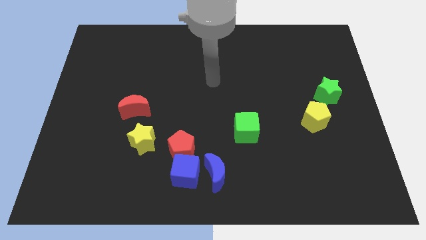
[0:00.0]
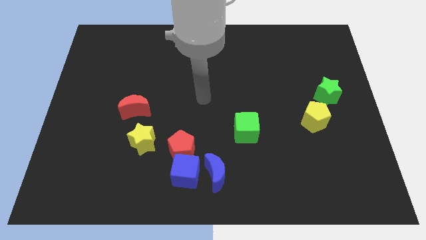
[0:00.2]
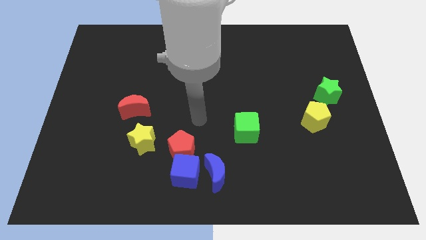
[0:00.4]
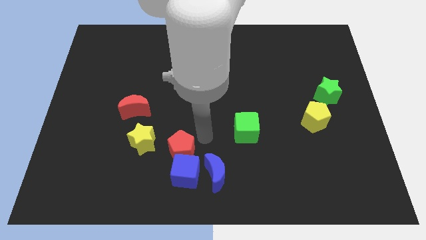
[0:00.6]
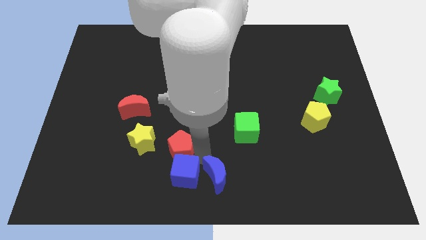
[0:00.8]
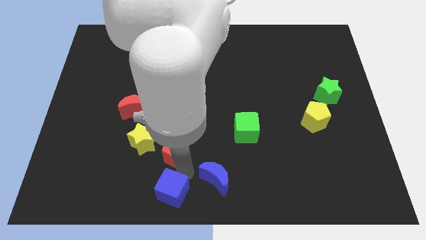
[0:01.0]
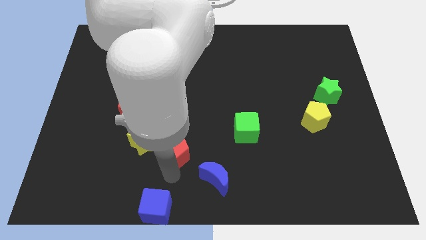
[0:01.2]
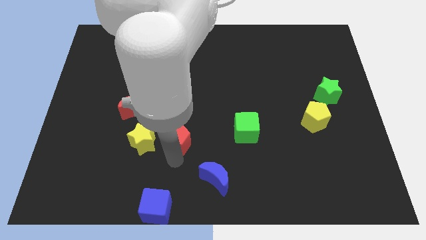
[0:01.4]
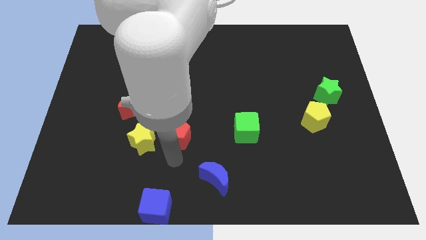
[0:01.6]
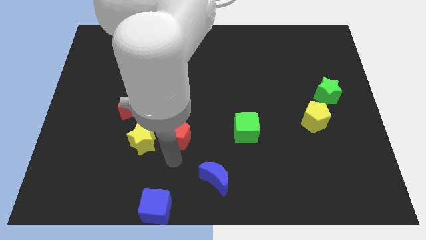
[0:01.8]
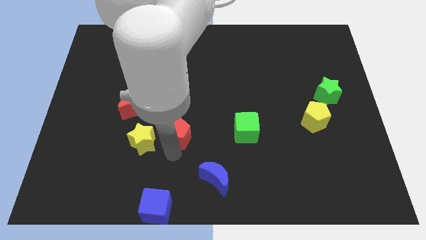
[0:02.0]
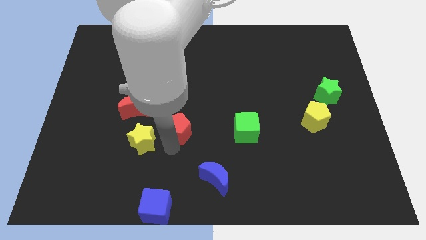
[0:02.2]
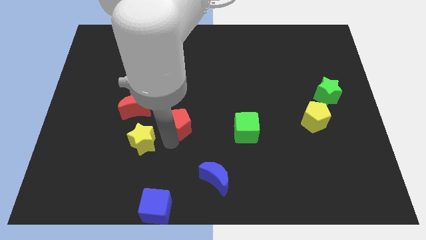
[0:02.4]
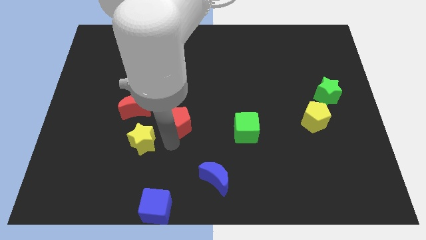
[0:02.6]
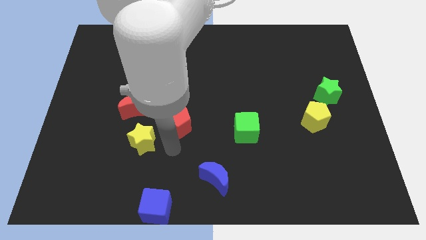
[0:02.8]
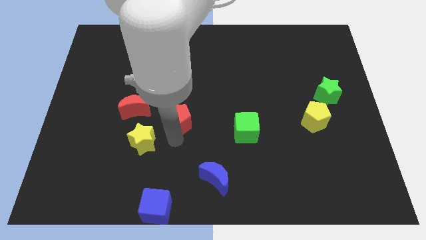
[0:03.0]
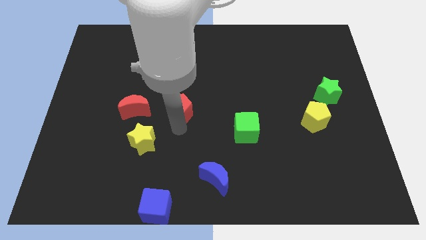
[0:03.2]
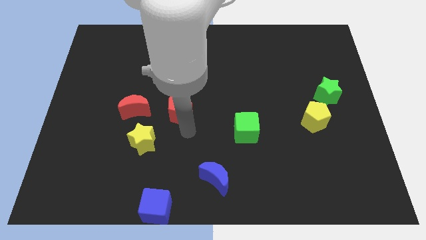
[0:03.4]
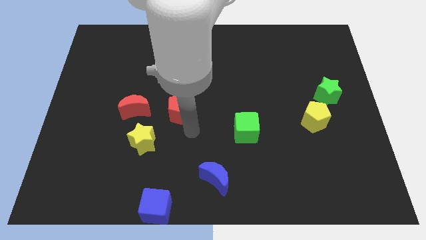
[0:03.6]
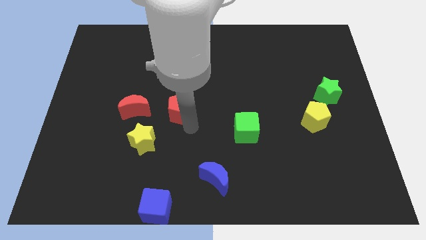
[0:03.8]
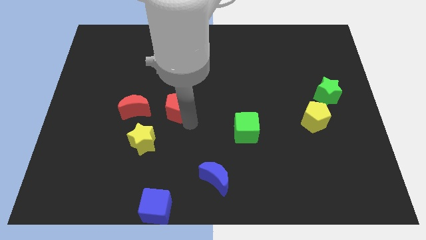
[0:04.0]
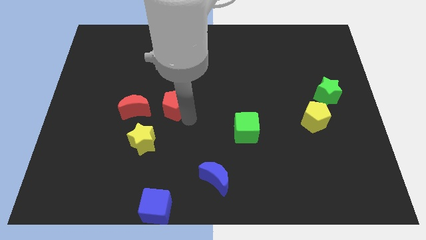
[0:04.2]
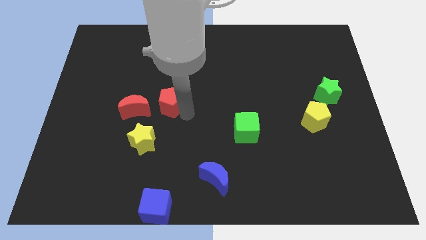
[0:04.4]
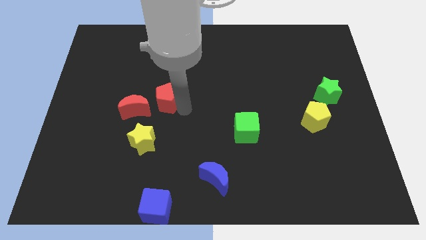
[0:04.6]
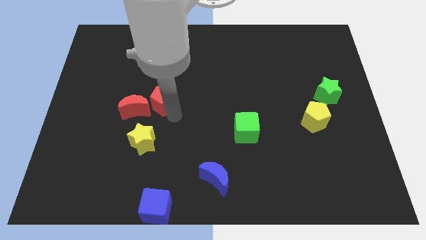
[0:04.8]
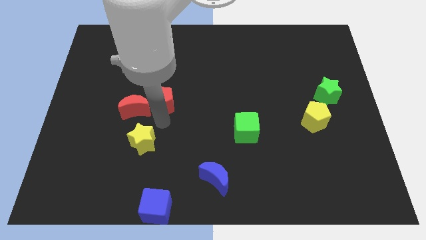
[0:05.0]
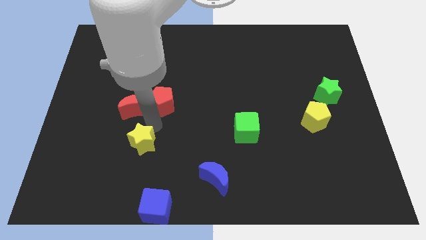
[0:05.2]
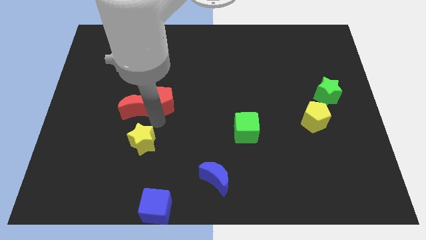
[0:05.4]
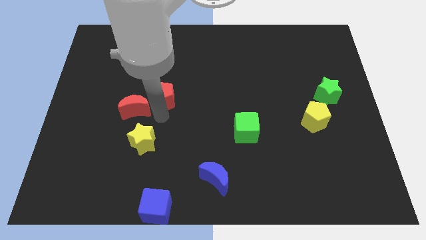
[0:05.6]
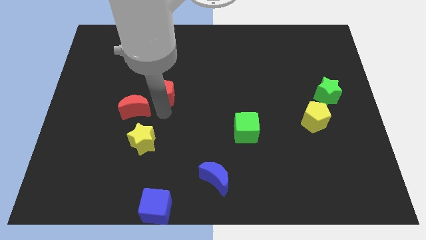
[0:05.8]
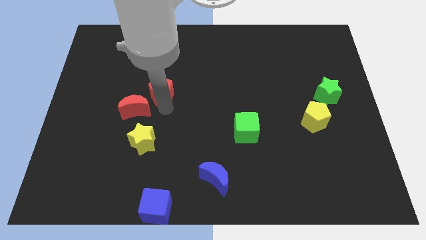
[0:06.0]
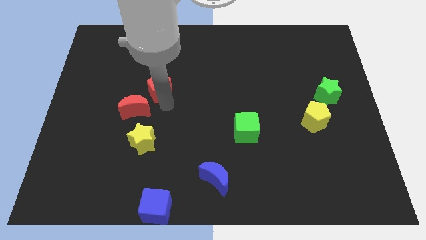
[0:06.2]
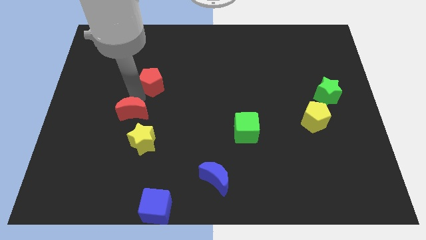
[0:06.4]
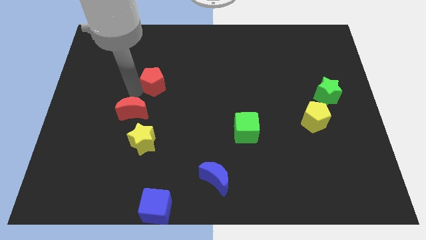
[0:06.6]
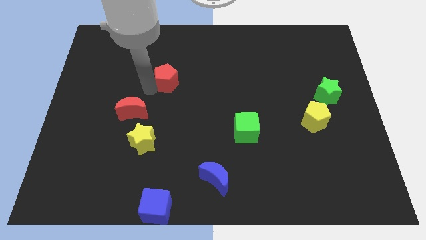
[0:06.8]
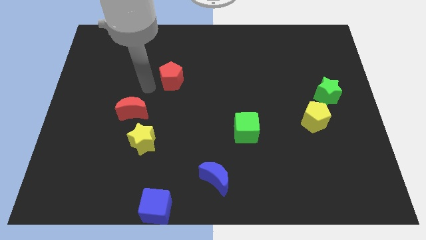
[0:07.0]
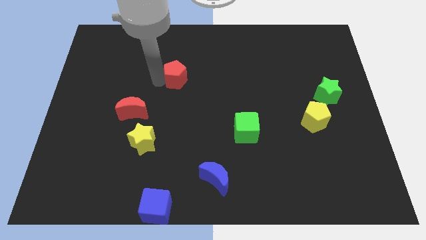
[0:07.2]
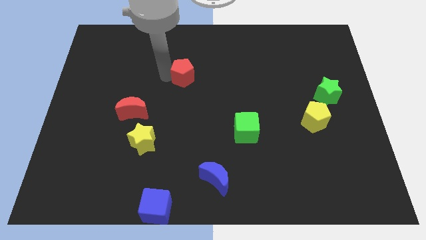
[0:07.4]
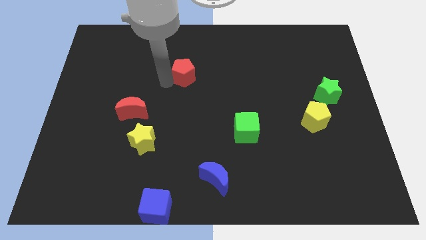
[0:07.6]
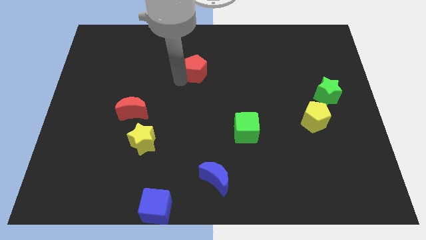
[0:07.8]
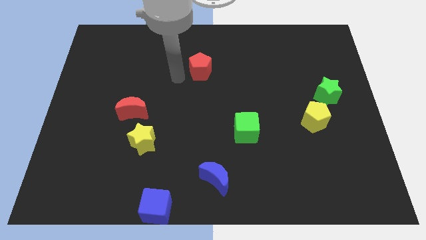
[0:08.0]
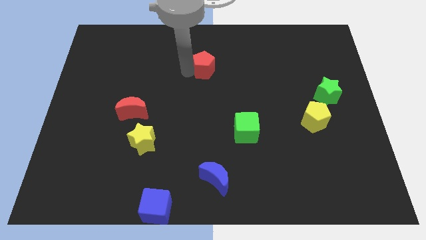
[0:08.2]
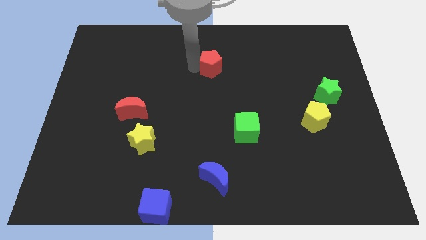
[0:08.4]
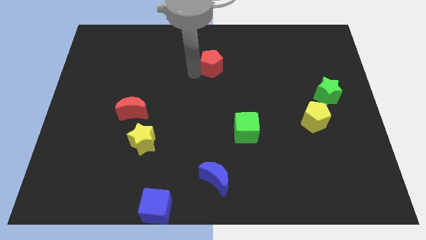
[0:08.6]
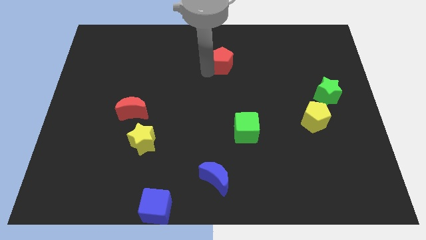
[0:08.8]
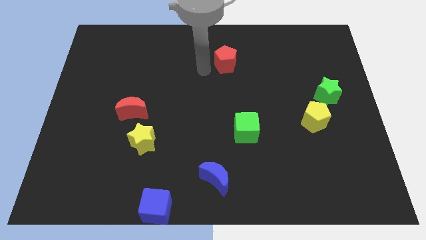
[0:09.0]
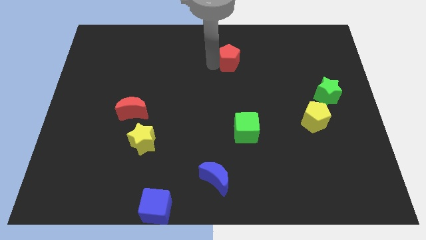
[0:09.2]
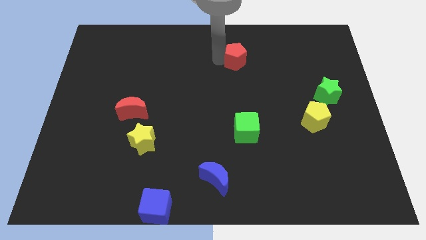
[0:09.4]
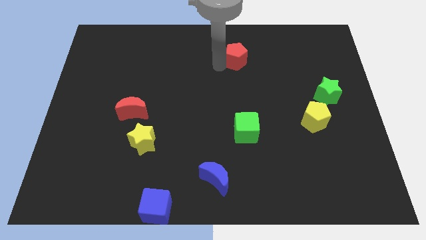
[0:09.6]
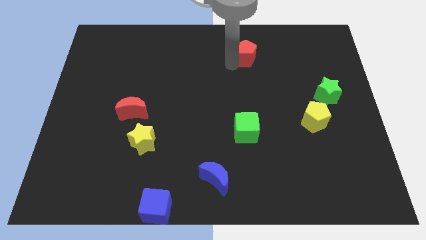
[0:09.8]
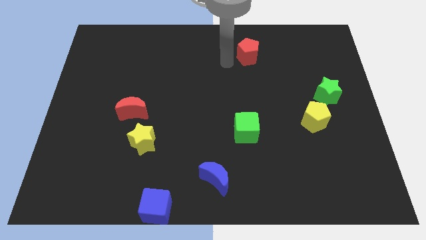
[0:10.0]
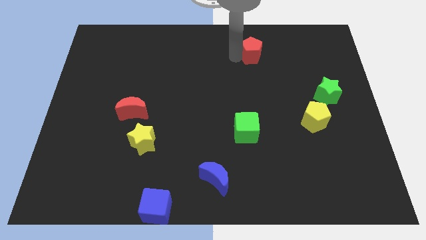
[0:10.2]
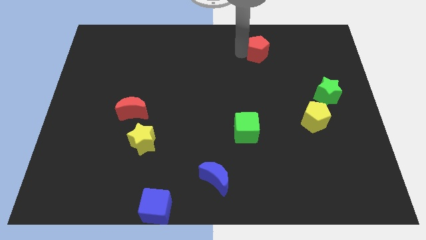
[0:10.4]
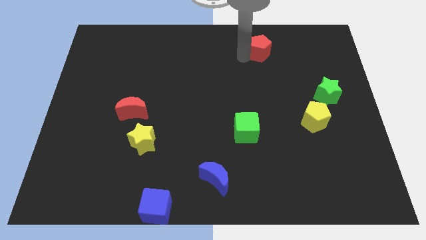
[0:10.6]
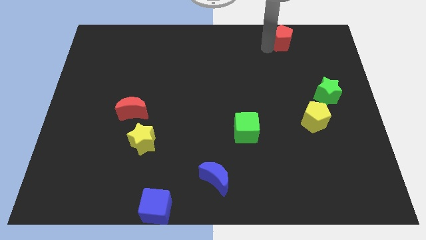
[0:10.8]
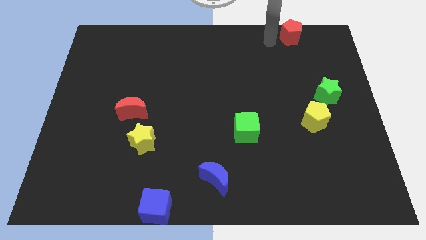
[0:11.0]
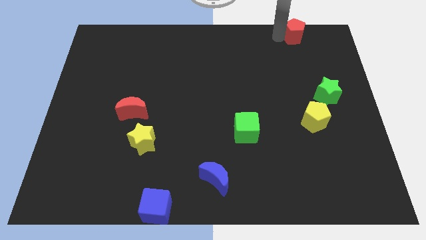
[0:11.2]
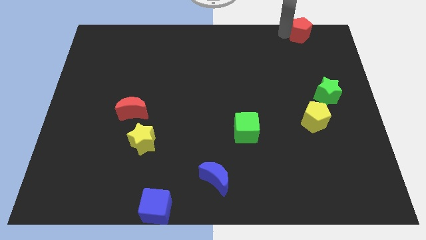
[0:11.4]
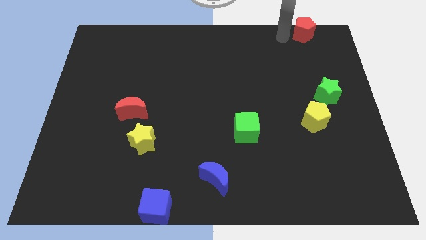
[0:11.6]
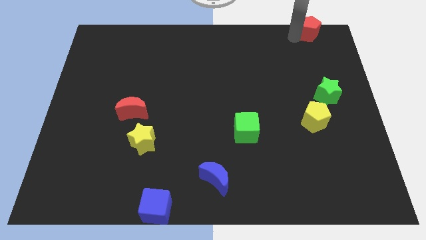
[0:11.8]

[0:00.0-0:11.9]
put the red pentagon to the top right corner
